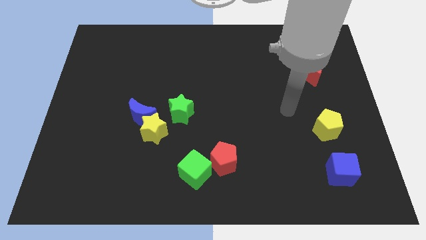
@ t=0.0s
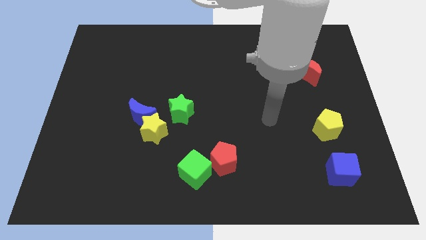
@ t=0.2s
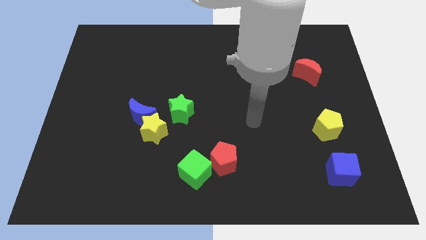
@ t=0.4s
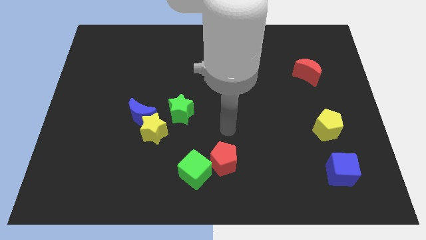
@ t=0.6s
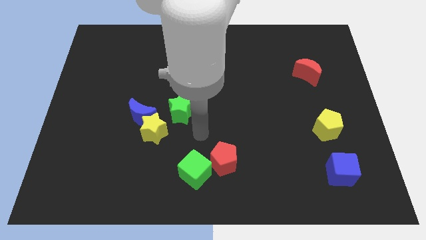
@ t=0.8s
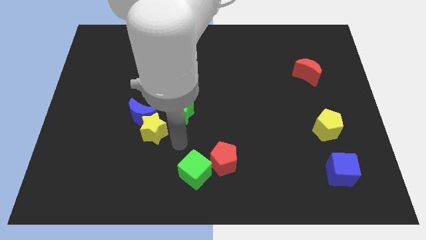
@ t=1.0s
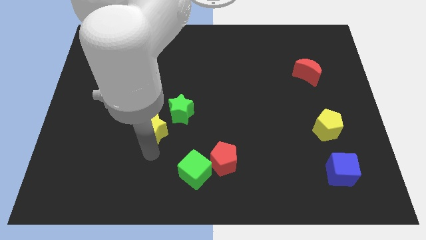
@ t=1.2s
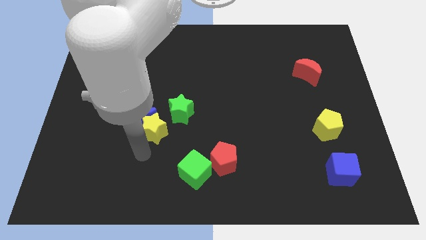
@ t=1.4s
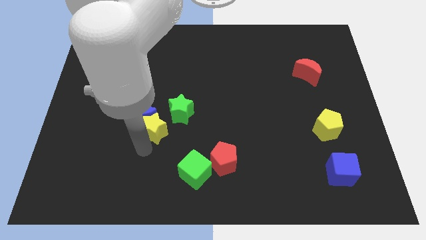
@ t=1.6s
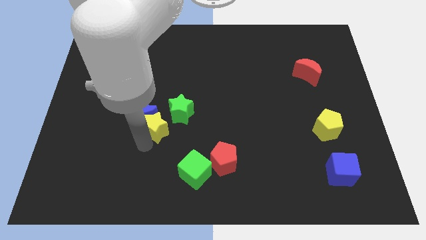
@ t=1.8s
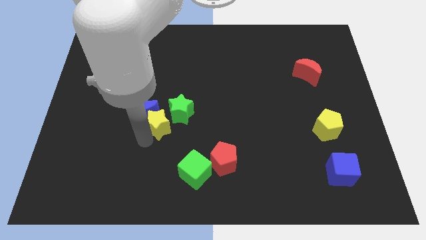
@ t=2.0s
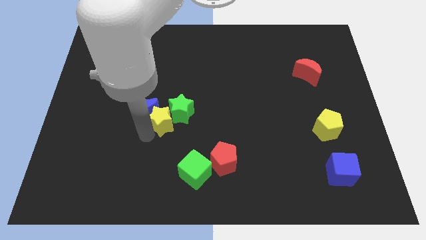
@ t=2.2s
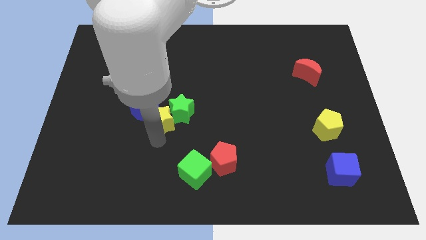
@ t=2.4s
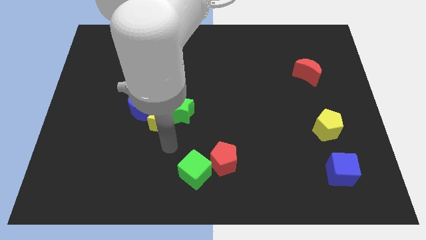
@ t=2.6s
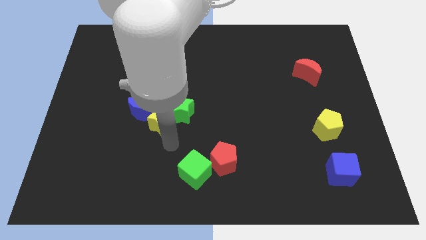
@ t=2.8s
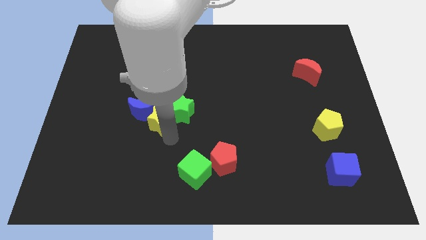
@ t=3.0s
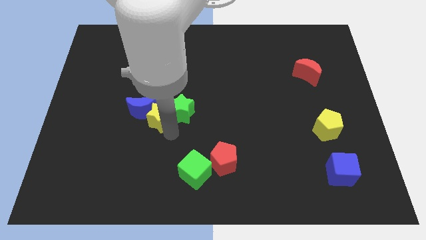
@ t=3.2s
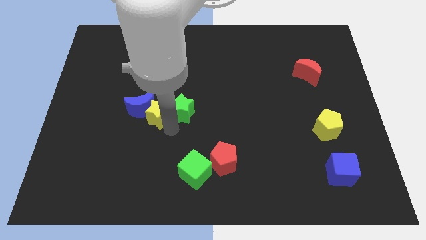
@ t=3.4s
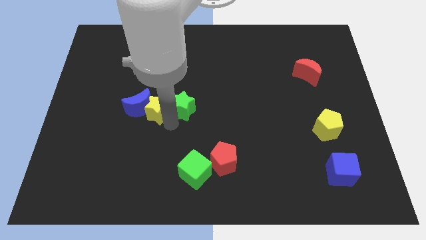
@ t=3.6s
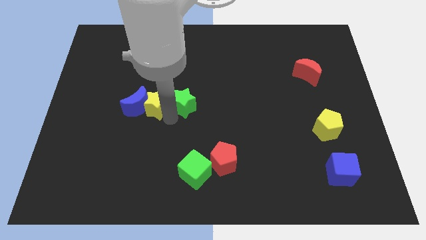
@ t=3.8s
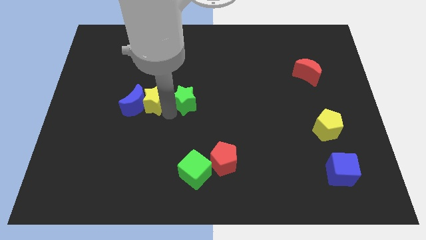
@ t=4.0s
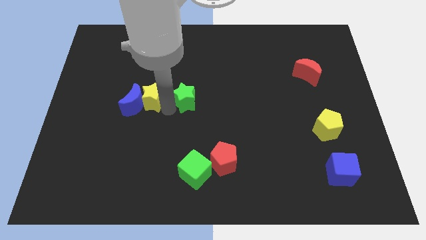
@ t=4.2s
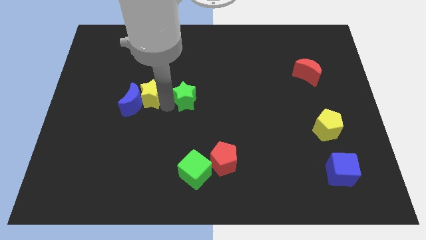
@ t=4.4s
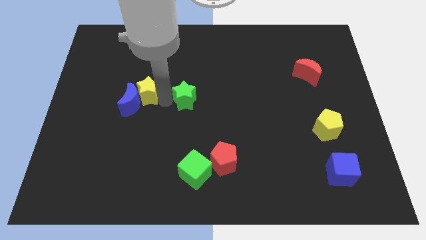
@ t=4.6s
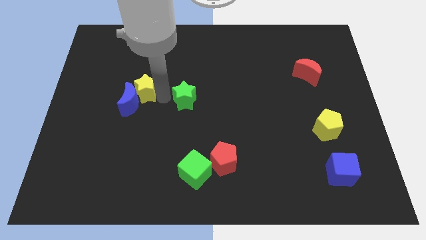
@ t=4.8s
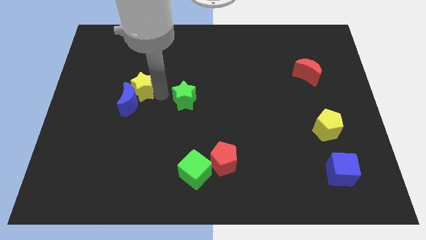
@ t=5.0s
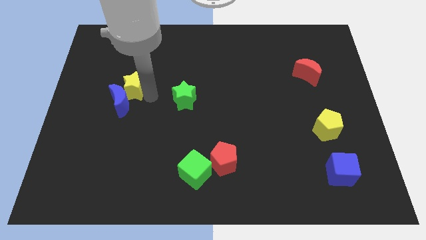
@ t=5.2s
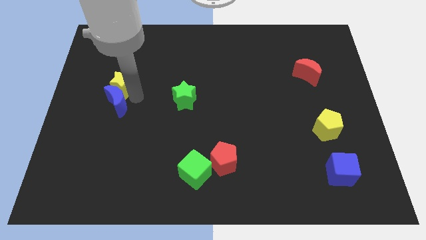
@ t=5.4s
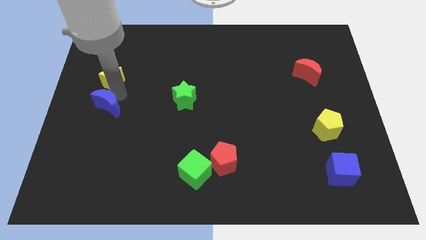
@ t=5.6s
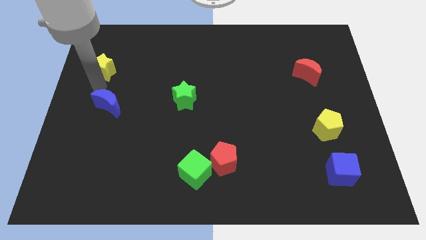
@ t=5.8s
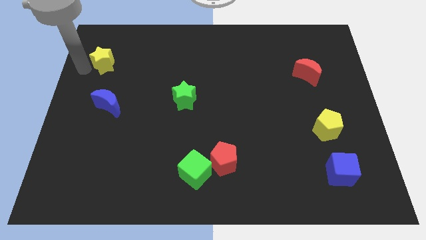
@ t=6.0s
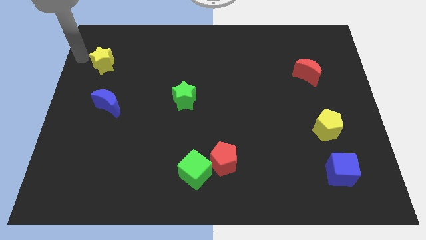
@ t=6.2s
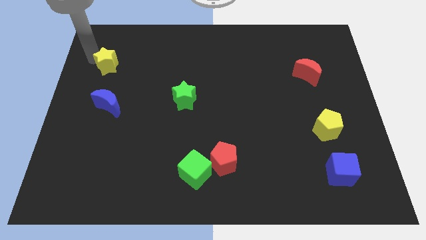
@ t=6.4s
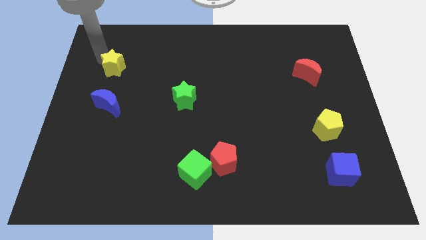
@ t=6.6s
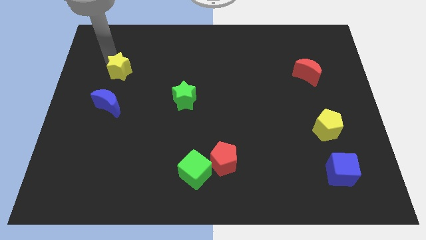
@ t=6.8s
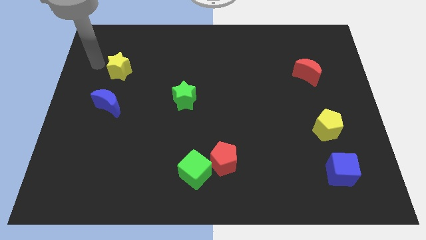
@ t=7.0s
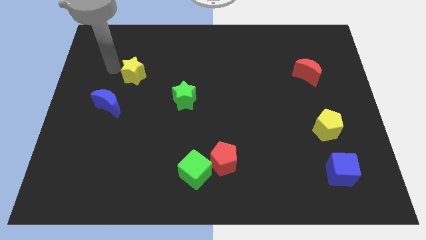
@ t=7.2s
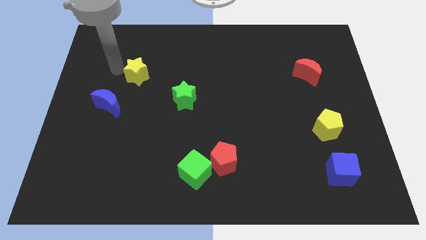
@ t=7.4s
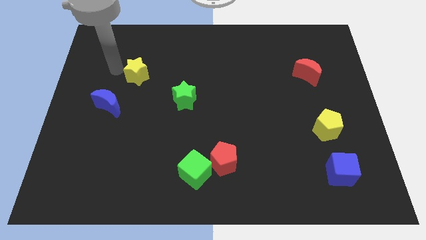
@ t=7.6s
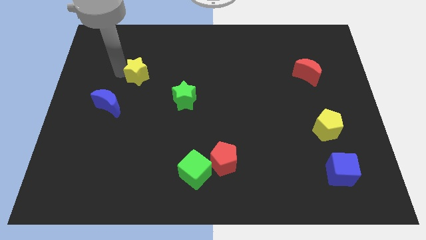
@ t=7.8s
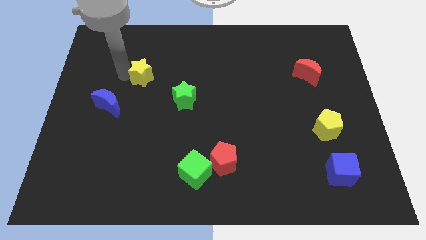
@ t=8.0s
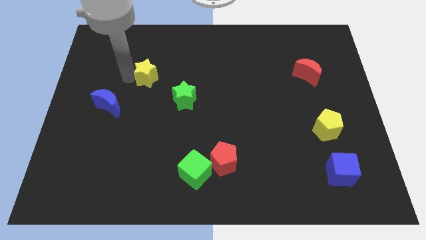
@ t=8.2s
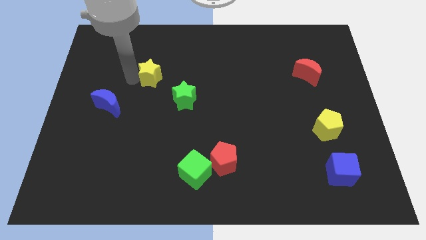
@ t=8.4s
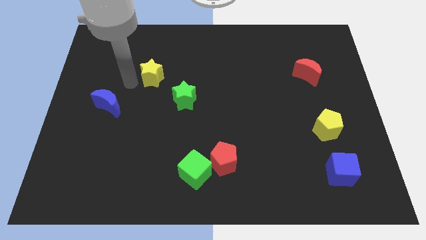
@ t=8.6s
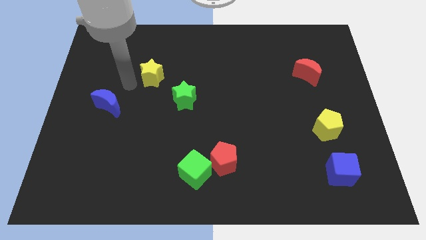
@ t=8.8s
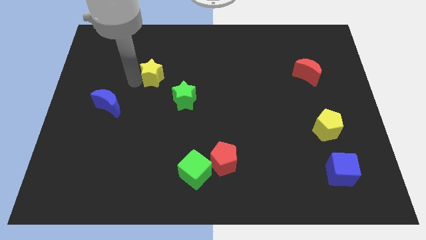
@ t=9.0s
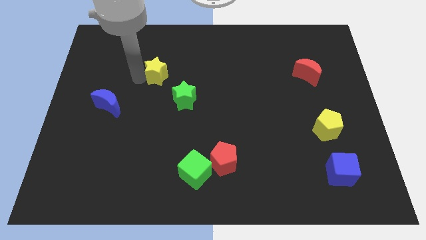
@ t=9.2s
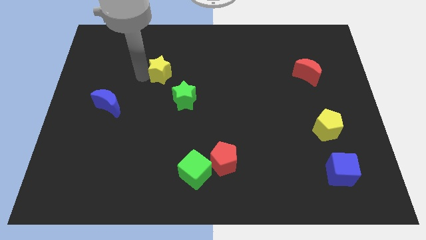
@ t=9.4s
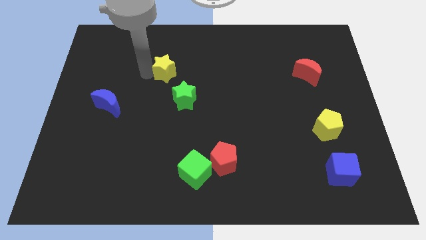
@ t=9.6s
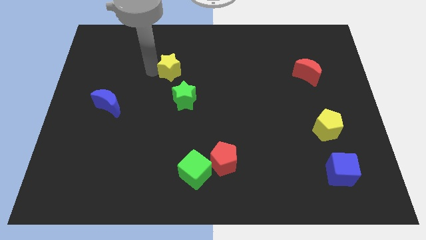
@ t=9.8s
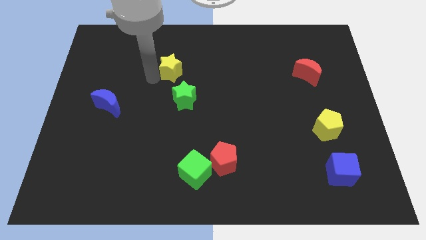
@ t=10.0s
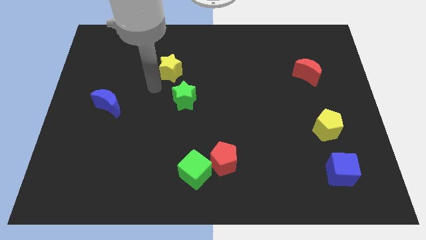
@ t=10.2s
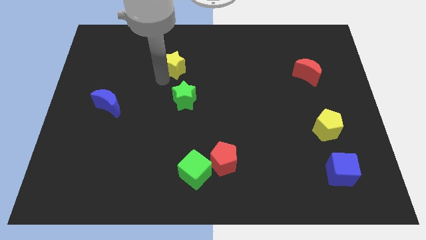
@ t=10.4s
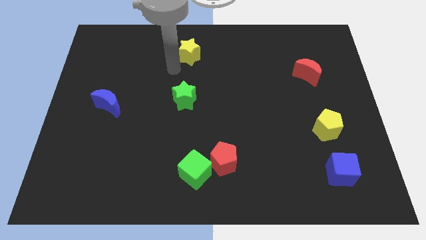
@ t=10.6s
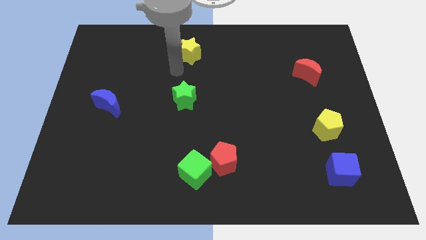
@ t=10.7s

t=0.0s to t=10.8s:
push the yellow star to the top
